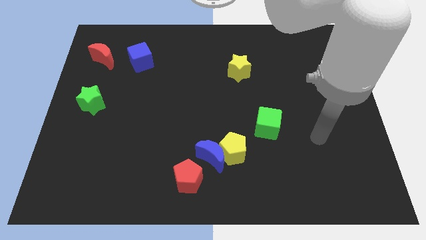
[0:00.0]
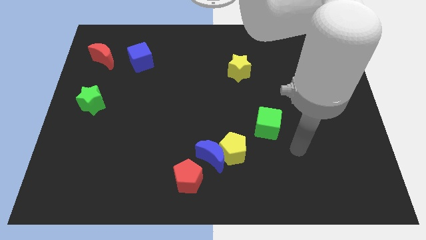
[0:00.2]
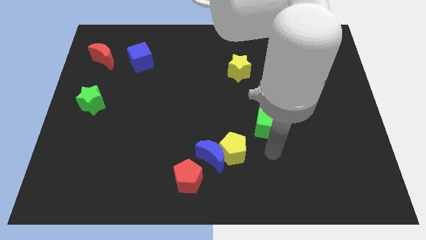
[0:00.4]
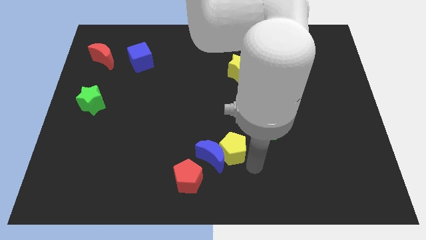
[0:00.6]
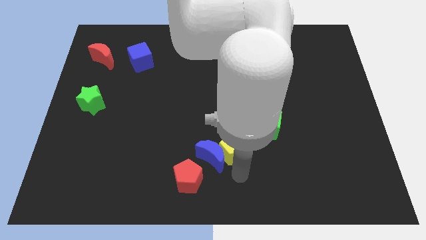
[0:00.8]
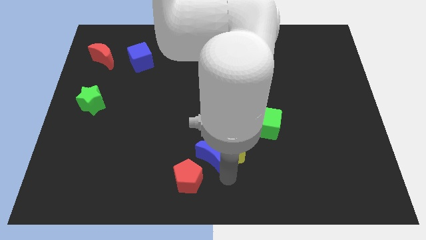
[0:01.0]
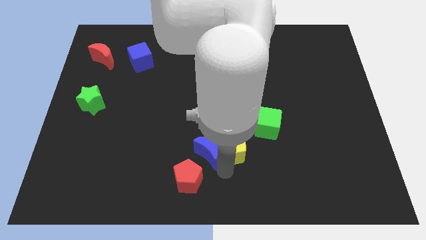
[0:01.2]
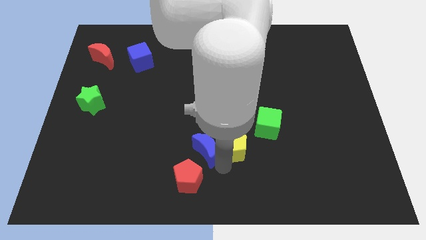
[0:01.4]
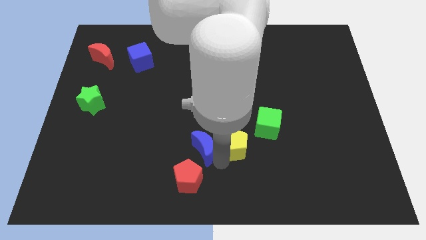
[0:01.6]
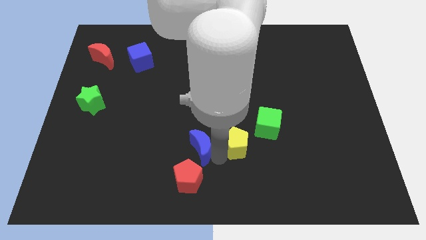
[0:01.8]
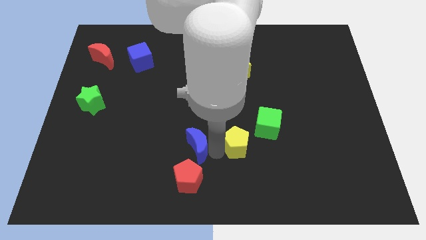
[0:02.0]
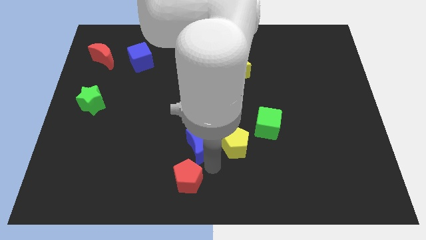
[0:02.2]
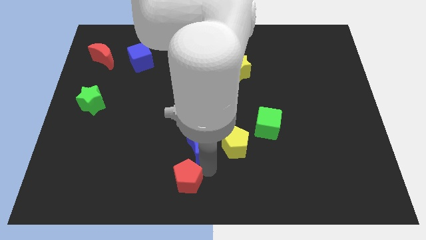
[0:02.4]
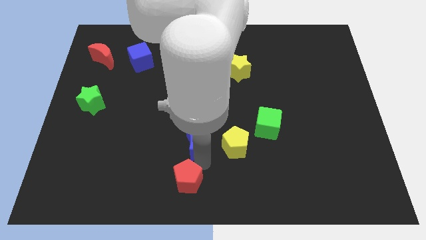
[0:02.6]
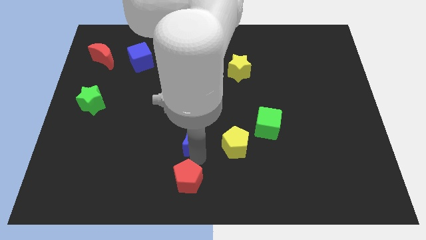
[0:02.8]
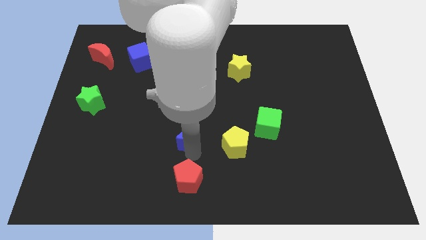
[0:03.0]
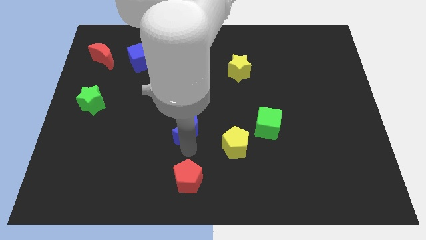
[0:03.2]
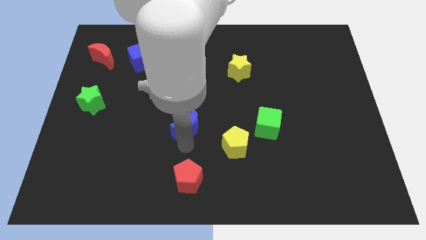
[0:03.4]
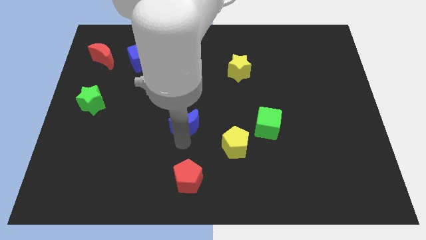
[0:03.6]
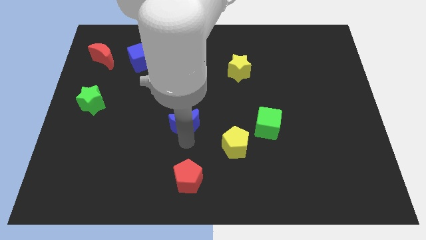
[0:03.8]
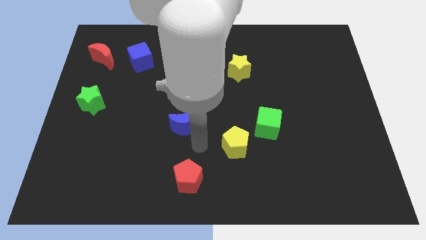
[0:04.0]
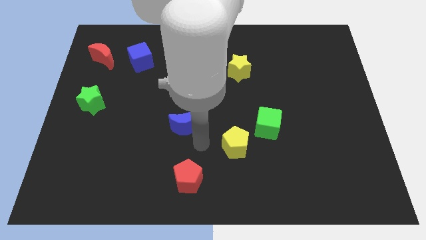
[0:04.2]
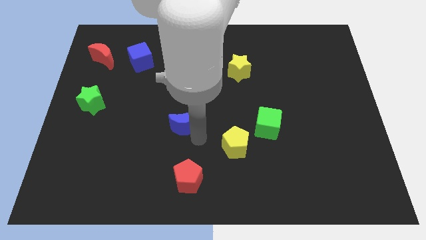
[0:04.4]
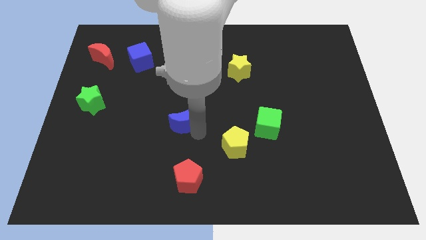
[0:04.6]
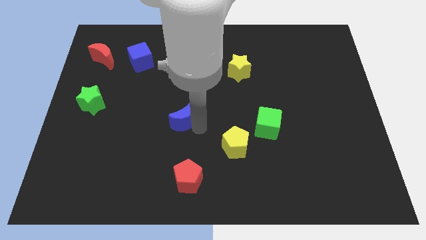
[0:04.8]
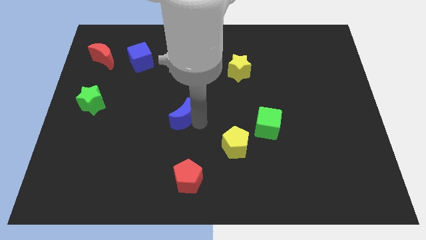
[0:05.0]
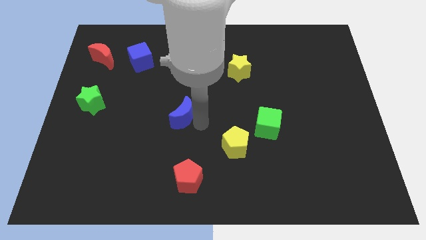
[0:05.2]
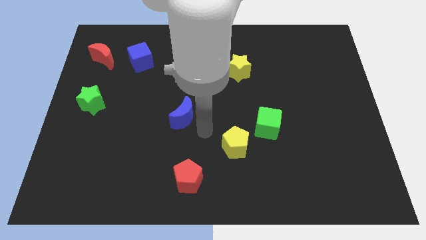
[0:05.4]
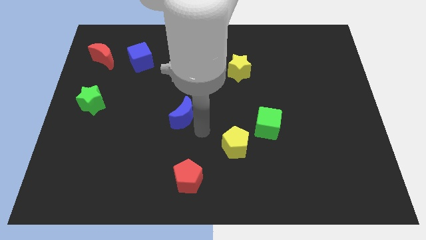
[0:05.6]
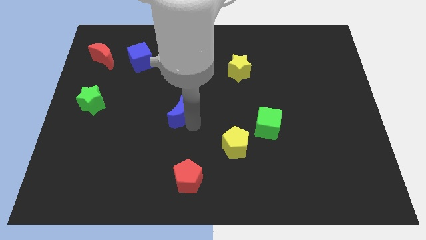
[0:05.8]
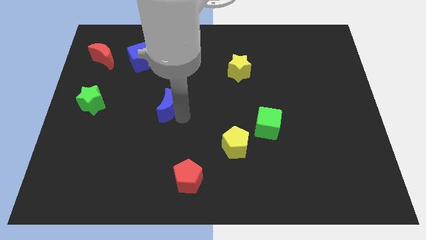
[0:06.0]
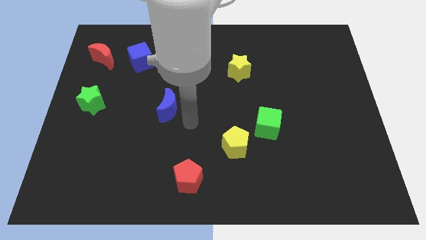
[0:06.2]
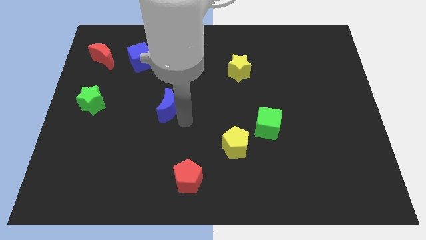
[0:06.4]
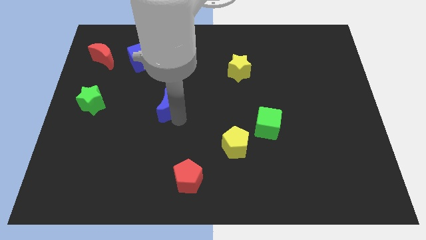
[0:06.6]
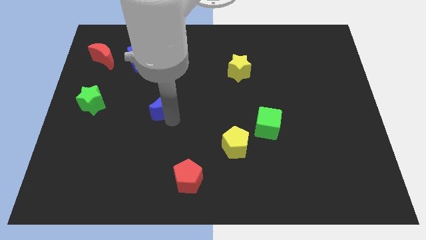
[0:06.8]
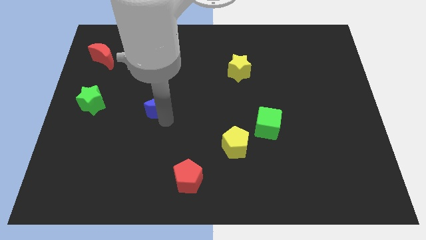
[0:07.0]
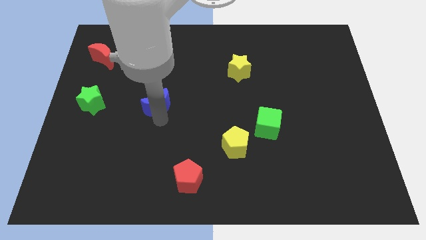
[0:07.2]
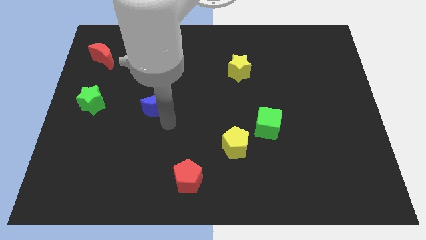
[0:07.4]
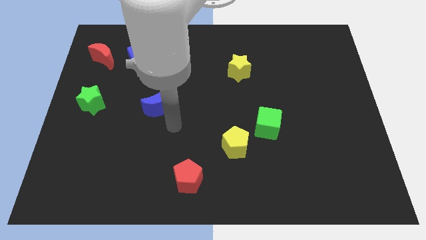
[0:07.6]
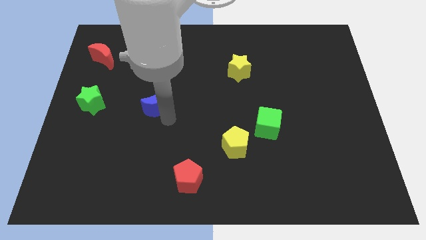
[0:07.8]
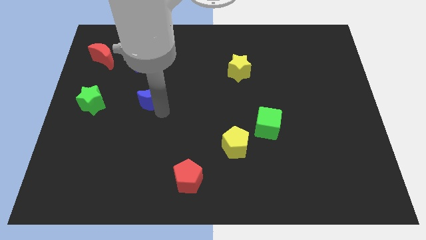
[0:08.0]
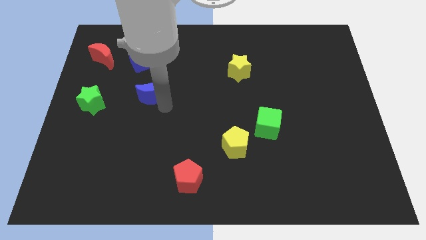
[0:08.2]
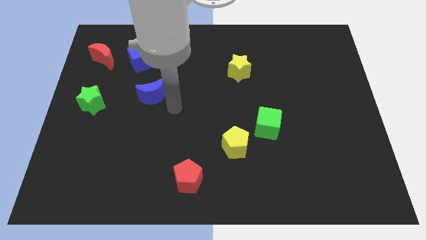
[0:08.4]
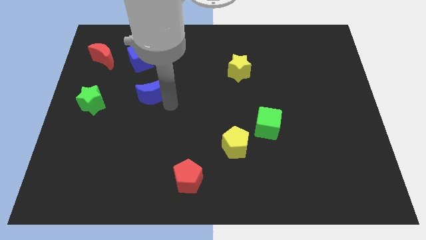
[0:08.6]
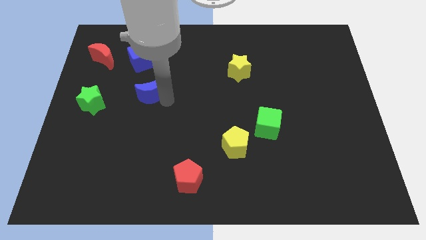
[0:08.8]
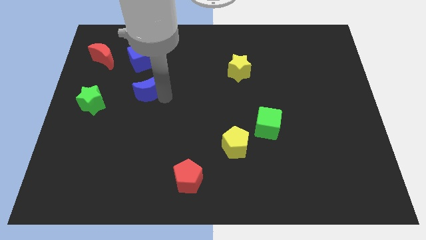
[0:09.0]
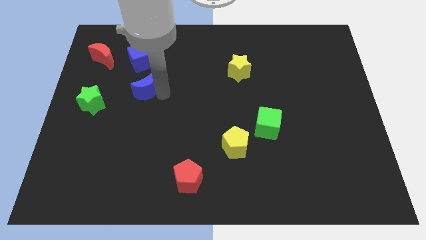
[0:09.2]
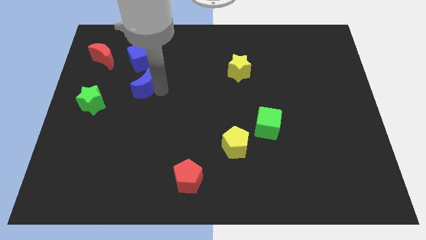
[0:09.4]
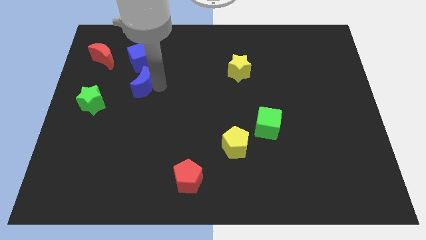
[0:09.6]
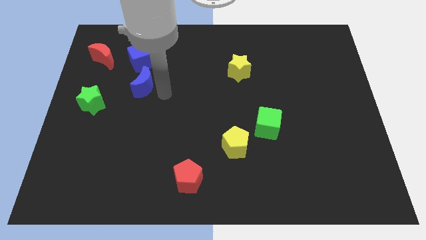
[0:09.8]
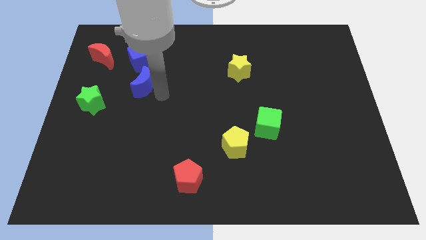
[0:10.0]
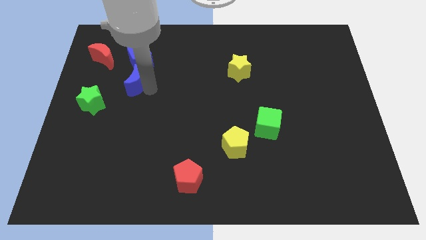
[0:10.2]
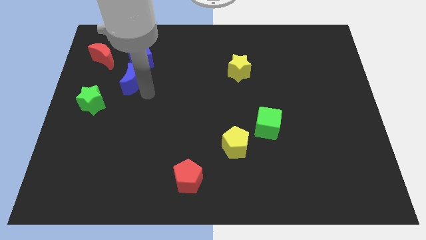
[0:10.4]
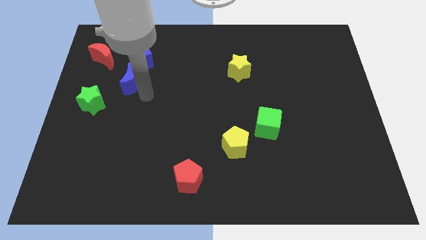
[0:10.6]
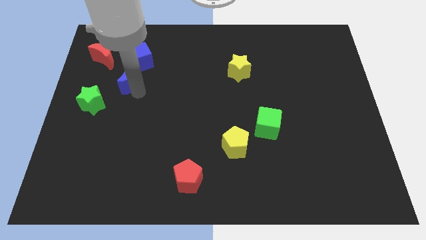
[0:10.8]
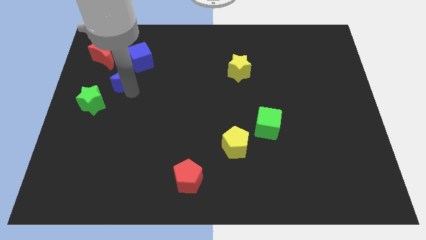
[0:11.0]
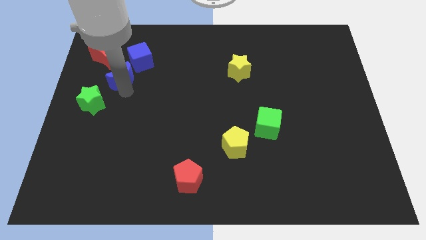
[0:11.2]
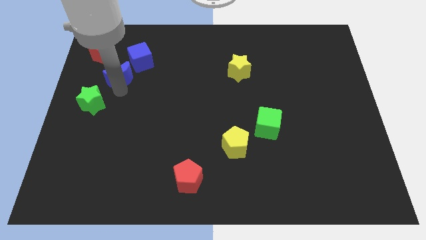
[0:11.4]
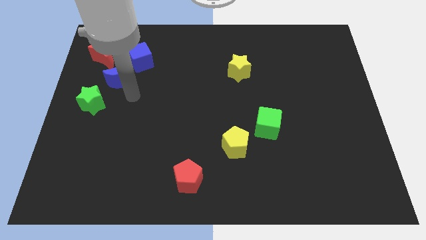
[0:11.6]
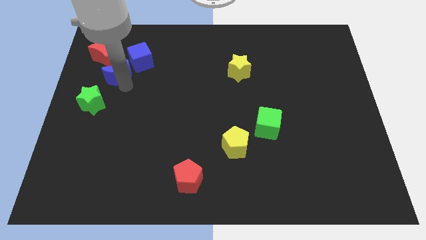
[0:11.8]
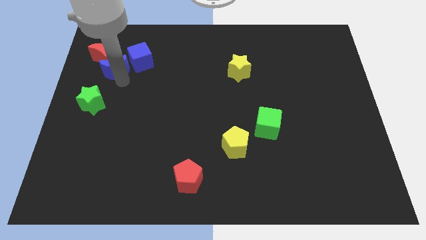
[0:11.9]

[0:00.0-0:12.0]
put the blue moon close to the red moon

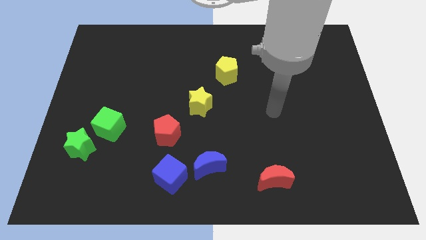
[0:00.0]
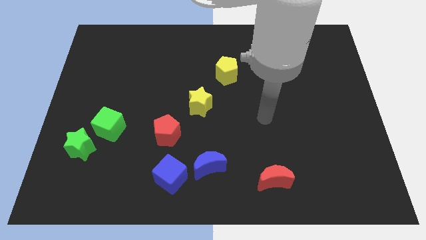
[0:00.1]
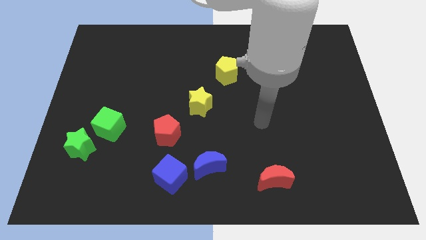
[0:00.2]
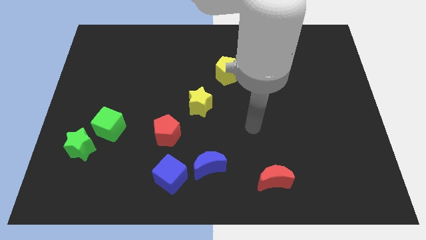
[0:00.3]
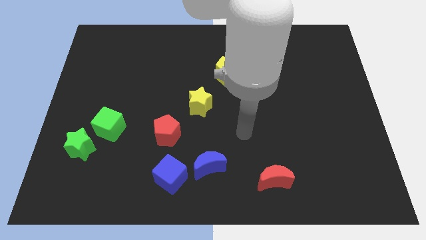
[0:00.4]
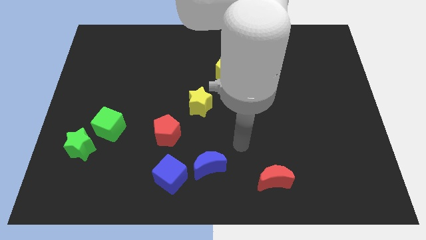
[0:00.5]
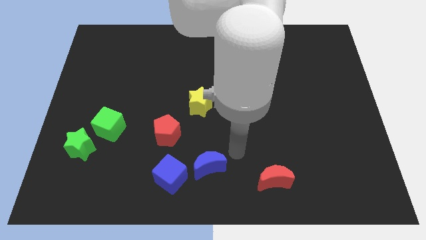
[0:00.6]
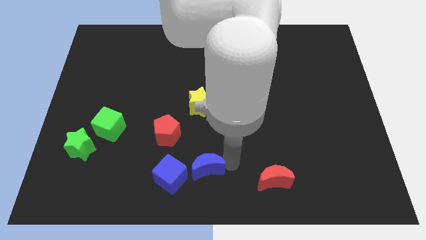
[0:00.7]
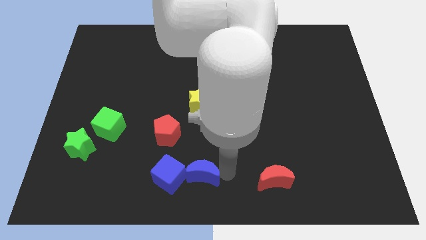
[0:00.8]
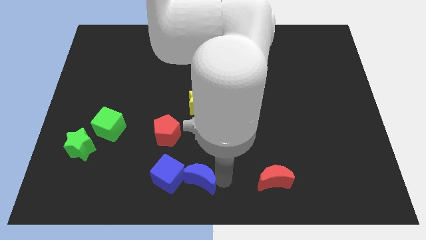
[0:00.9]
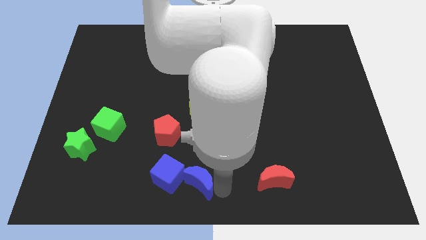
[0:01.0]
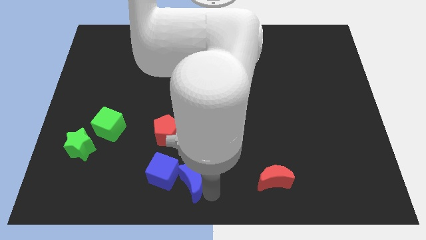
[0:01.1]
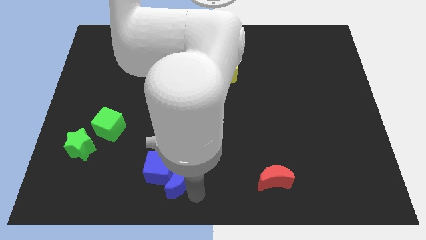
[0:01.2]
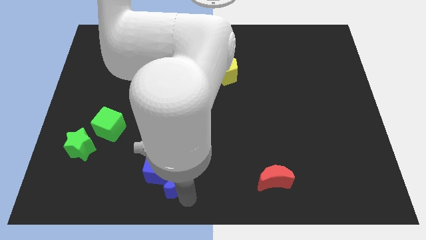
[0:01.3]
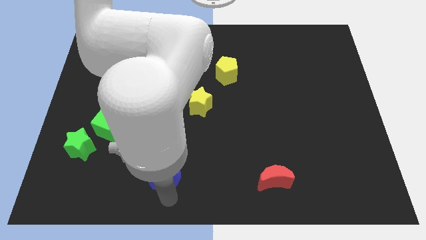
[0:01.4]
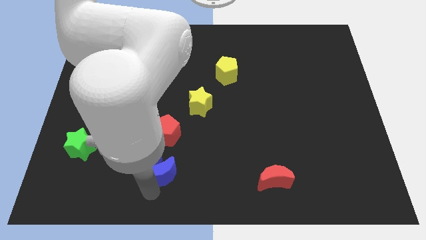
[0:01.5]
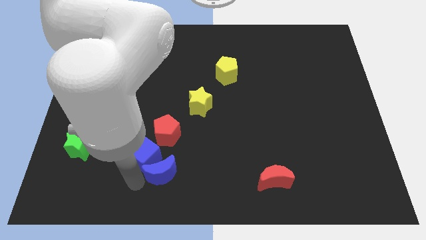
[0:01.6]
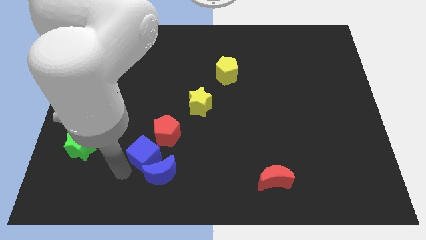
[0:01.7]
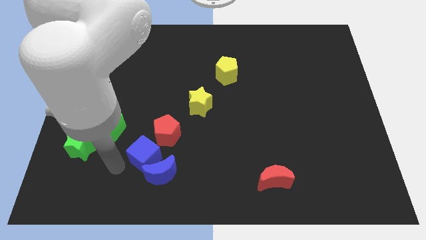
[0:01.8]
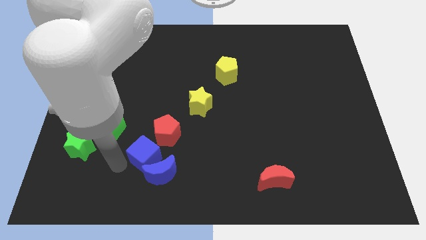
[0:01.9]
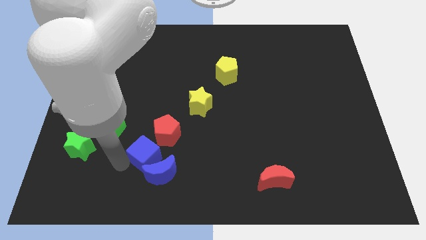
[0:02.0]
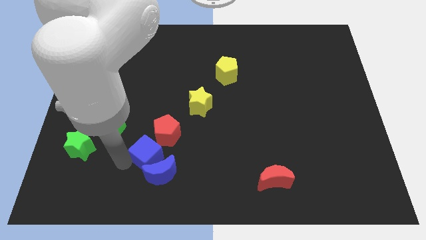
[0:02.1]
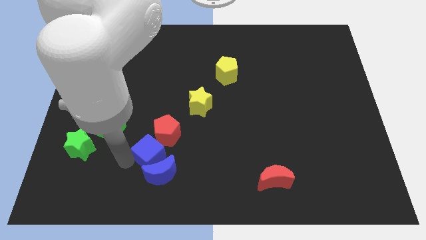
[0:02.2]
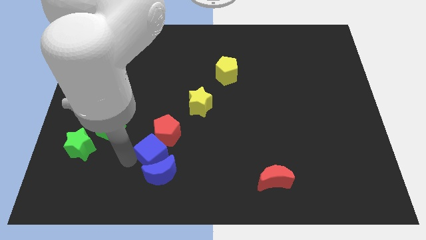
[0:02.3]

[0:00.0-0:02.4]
slide the blue cube towards the red pentagon
